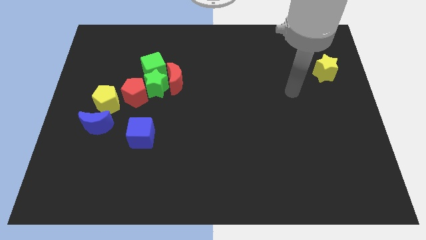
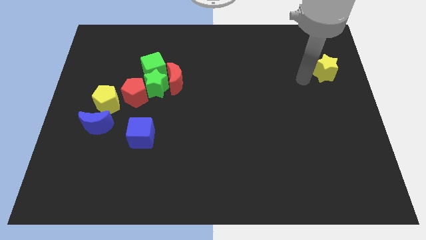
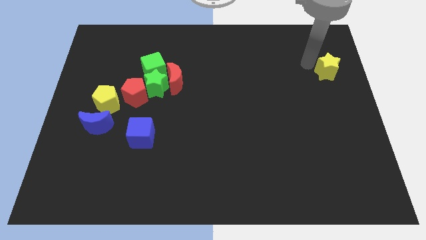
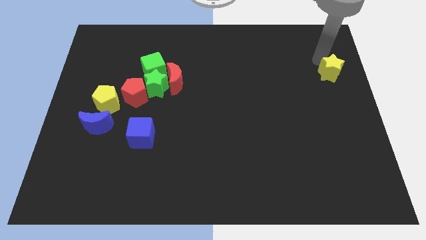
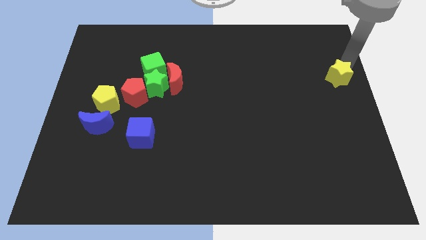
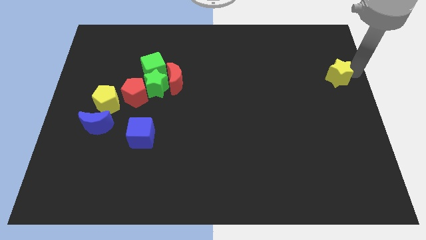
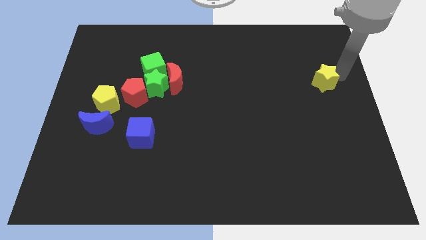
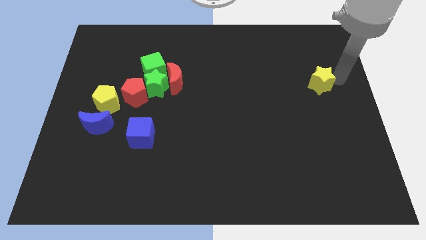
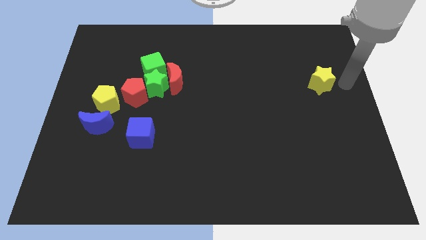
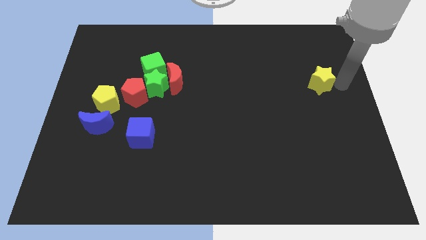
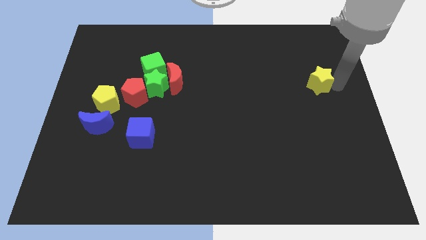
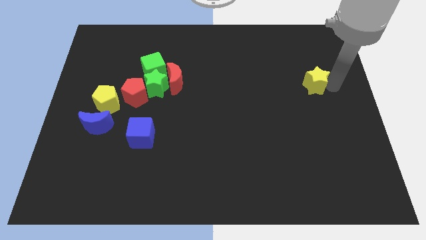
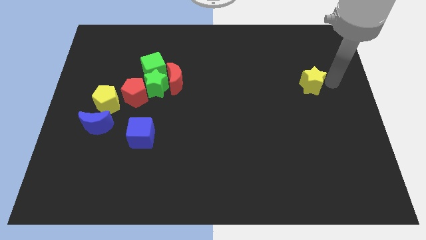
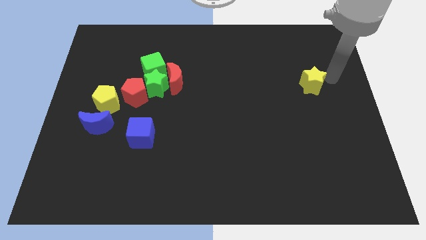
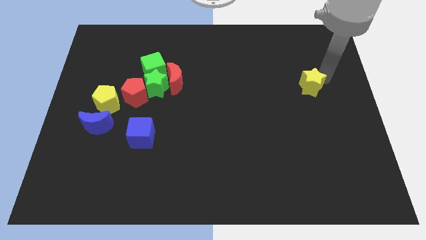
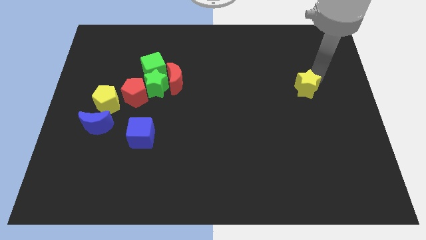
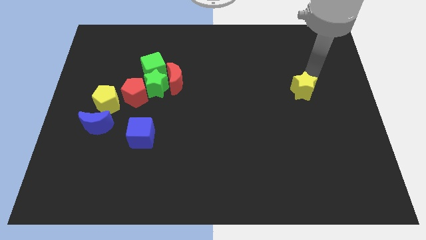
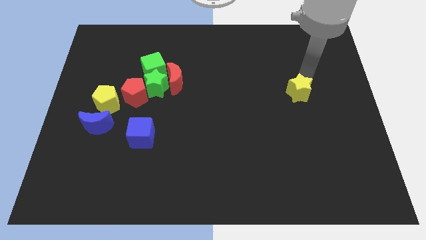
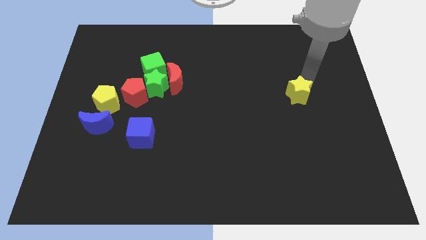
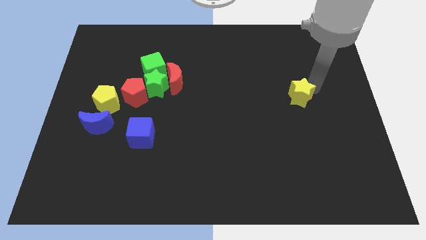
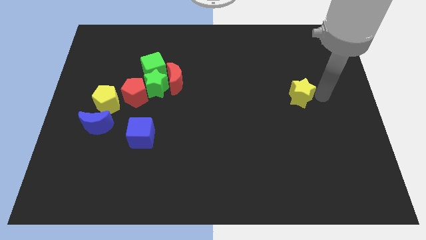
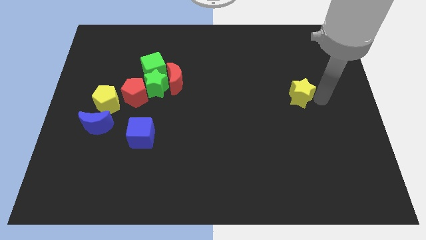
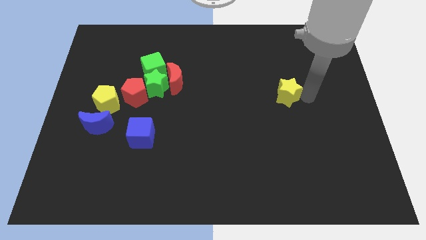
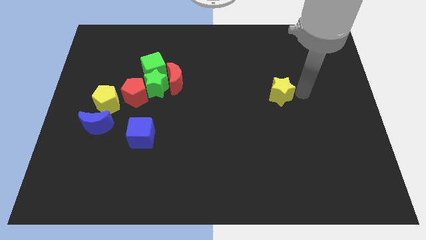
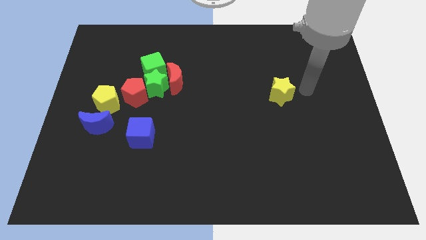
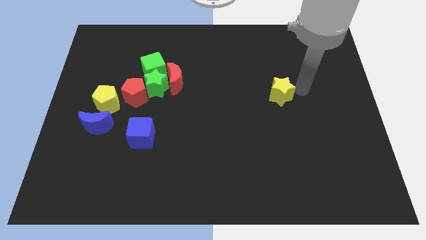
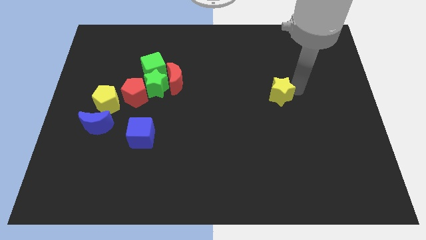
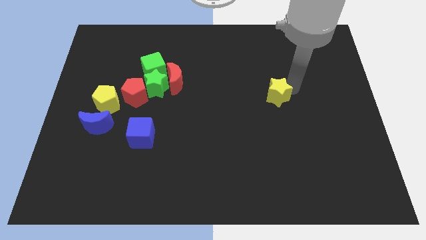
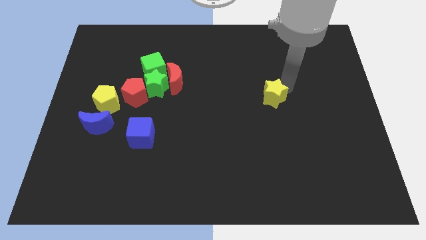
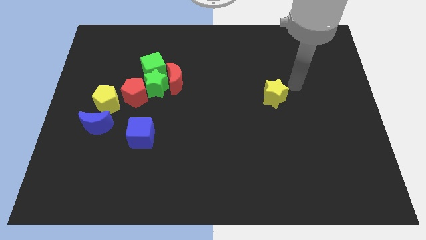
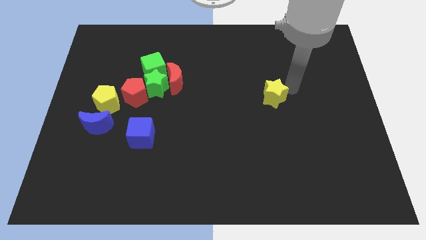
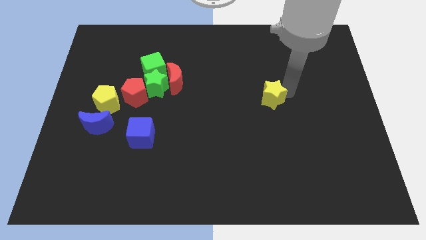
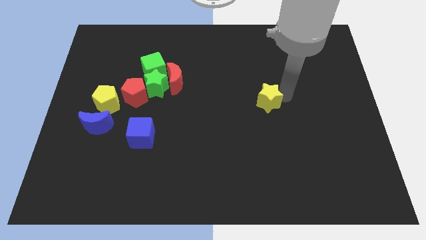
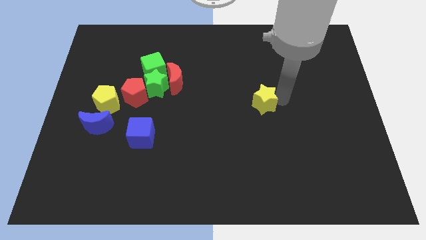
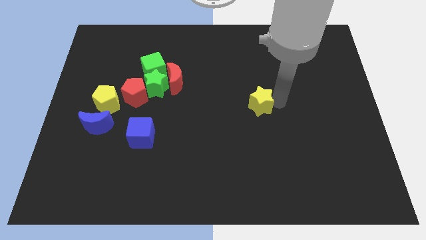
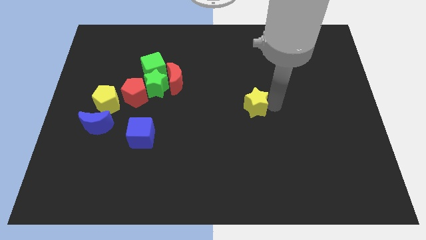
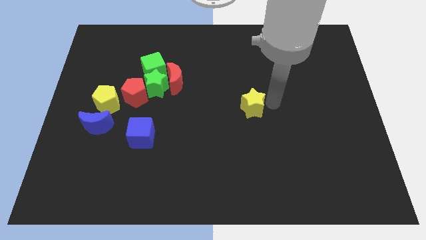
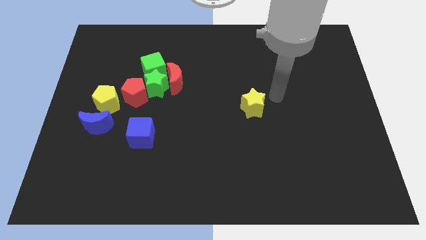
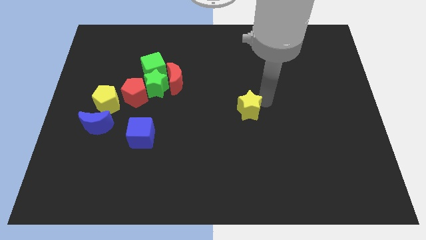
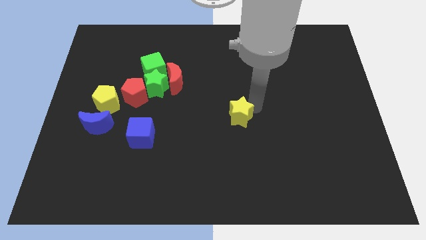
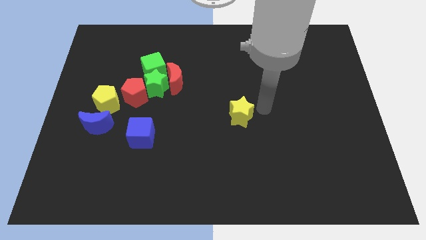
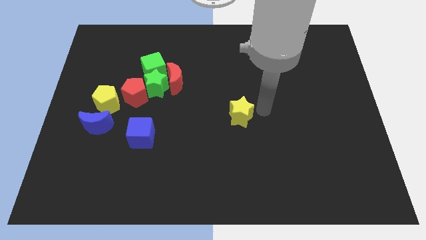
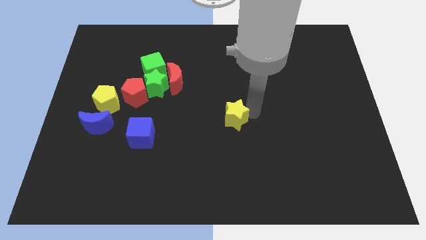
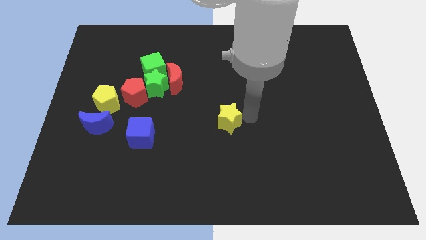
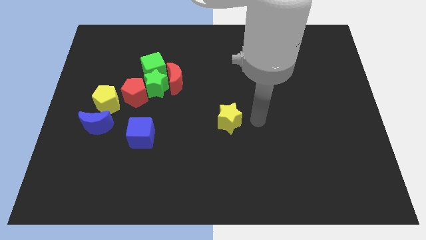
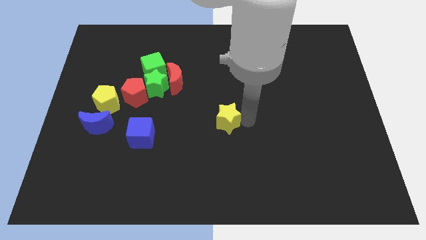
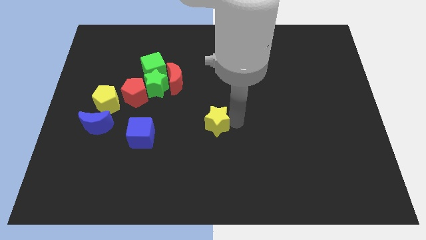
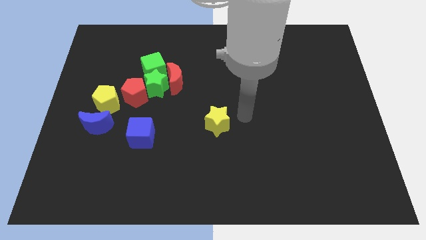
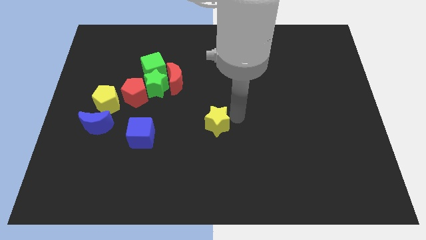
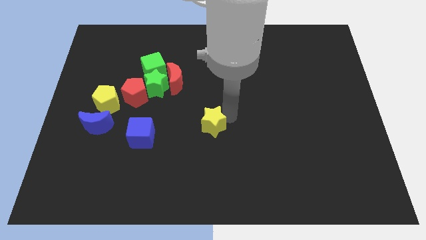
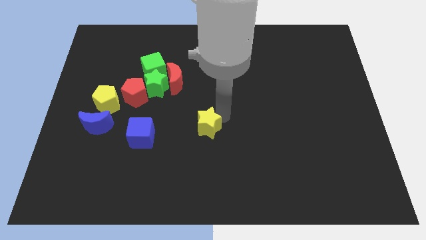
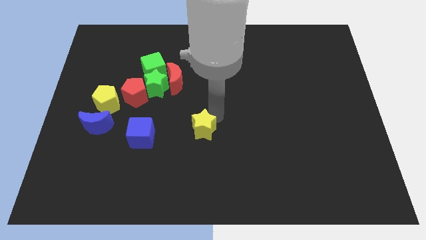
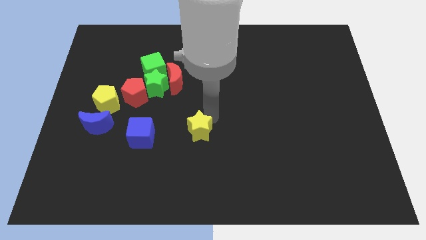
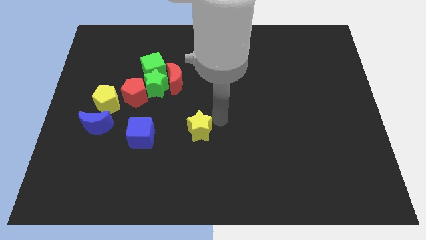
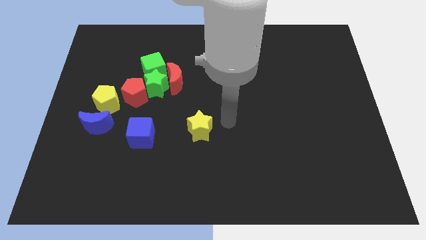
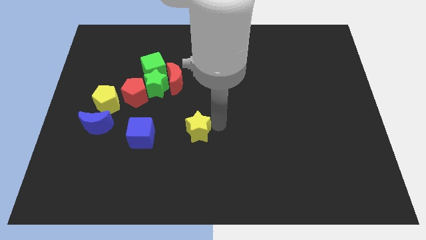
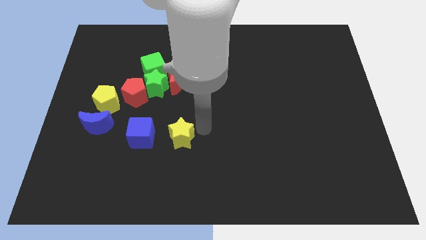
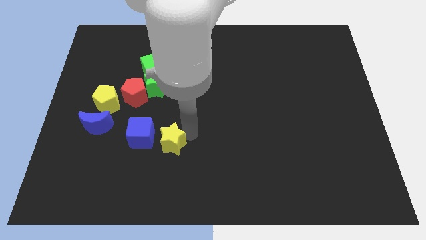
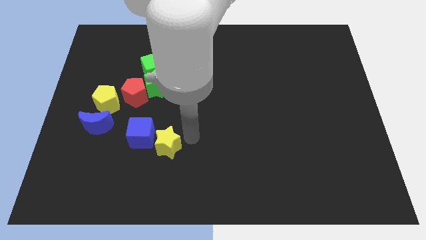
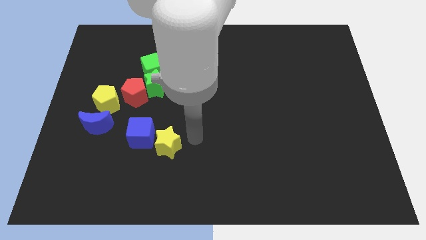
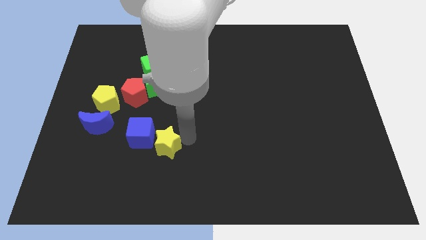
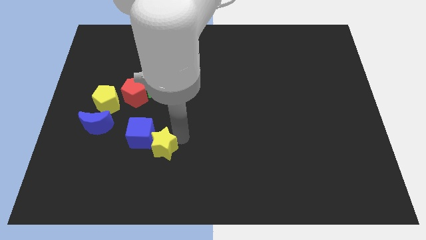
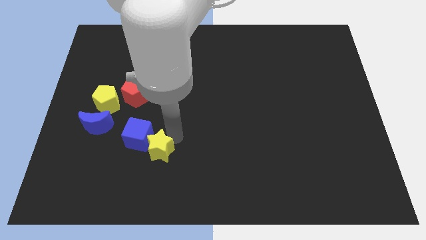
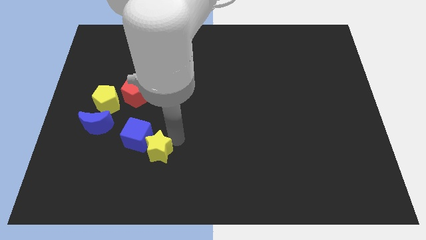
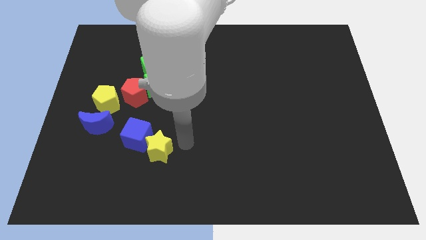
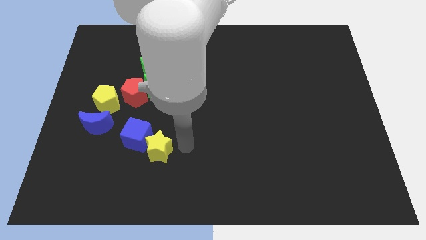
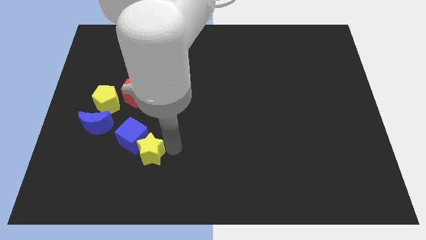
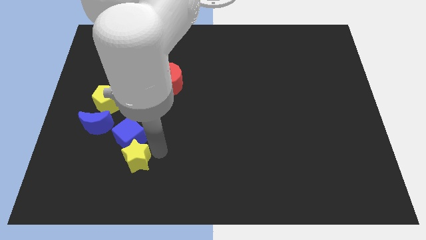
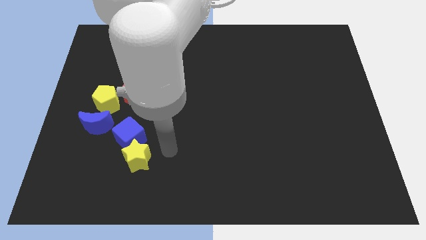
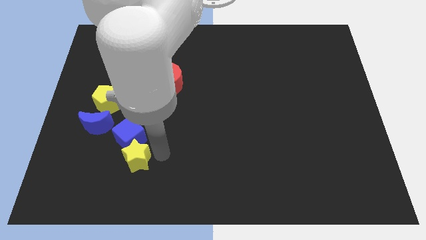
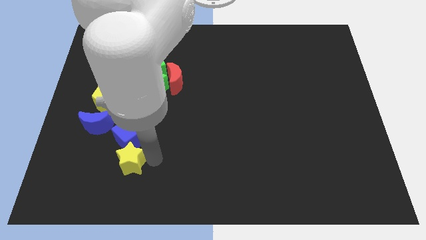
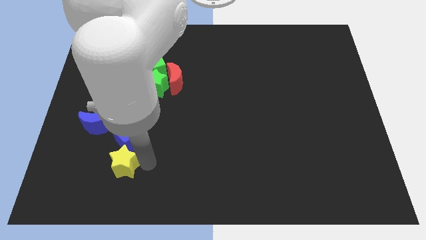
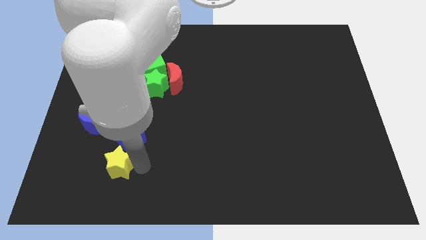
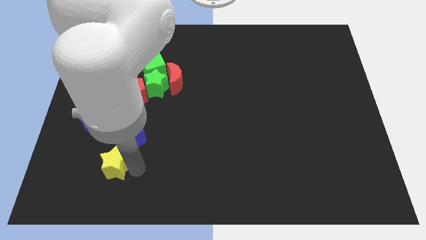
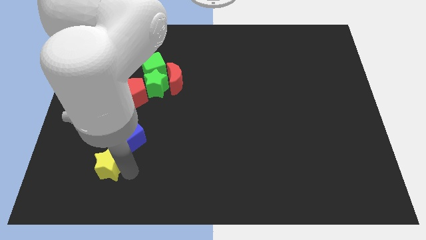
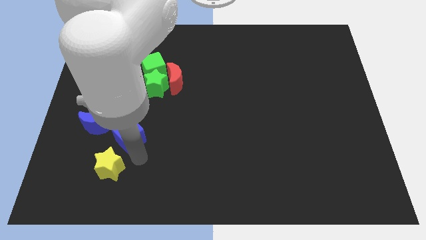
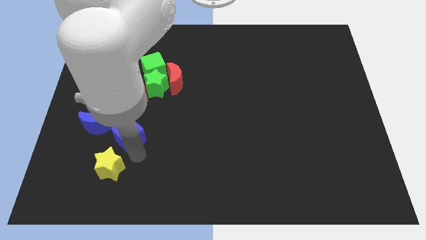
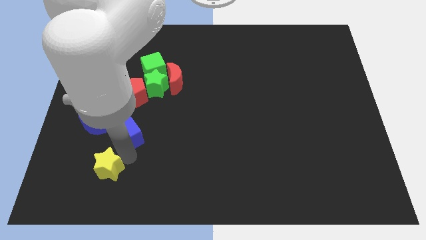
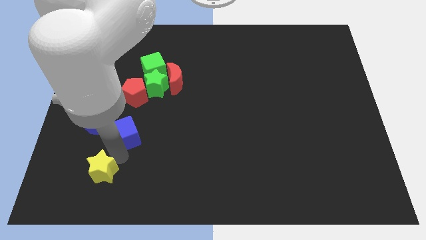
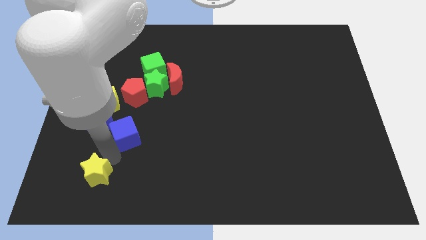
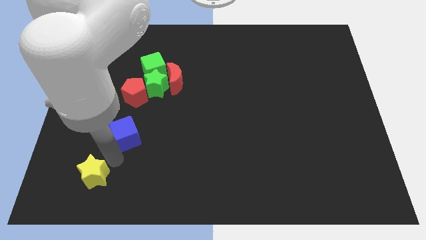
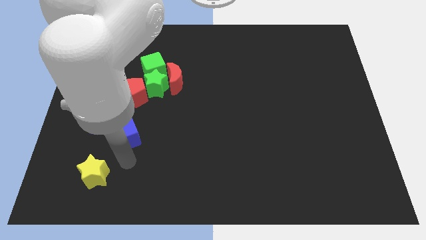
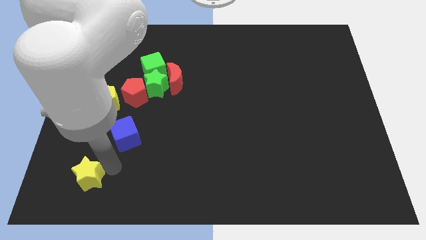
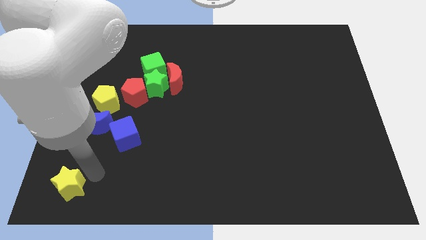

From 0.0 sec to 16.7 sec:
put the yellow star to the bottom left
